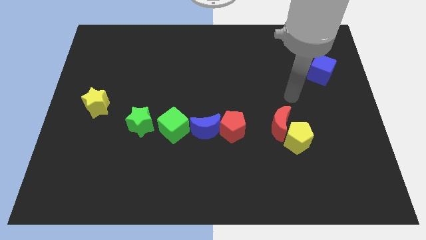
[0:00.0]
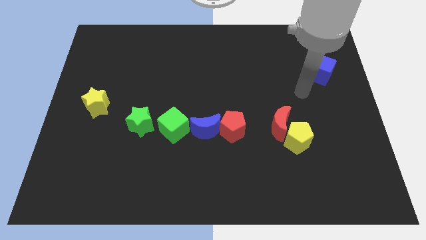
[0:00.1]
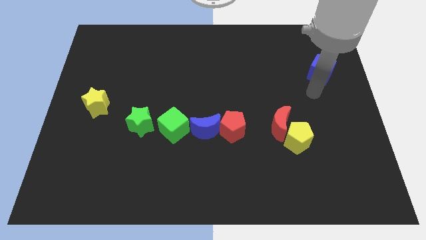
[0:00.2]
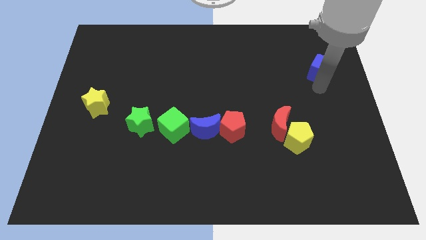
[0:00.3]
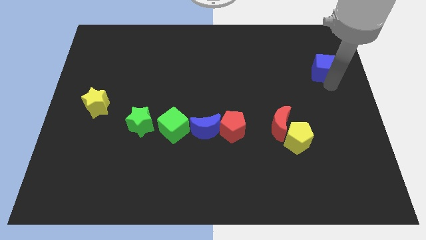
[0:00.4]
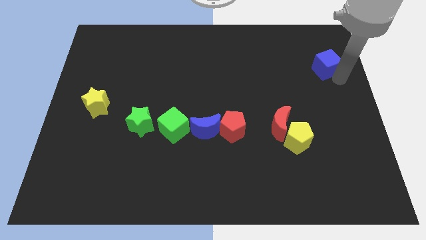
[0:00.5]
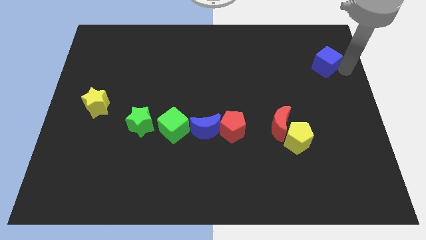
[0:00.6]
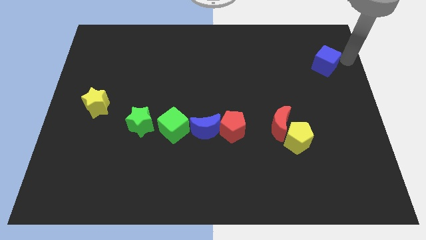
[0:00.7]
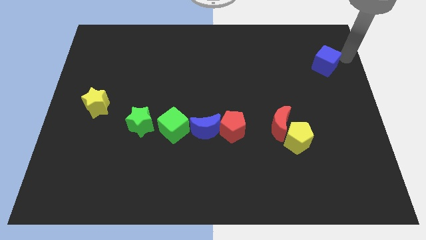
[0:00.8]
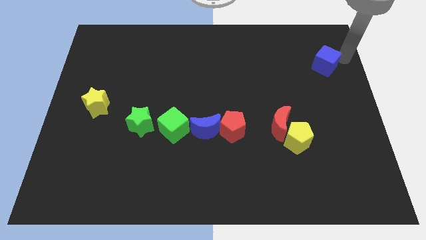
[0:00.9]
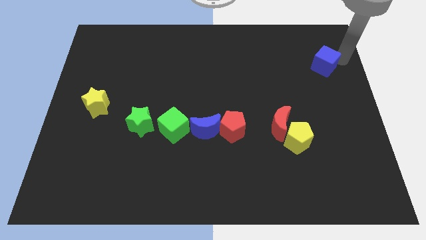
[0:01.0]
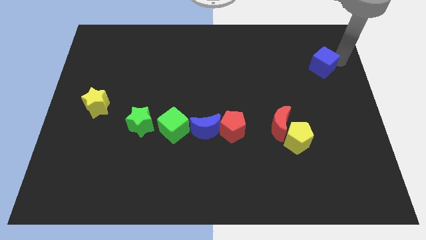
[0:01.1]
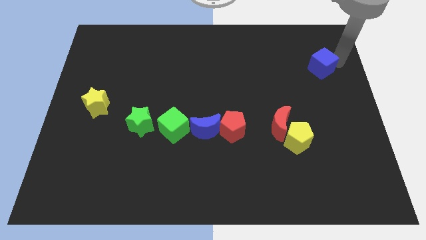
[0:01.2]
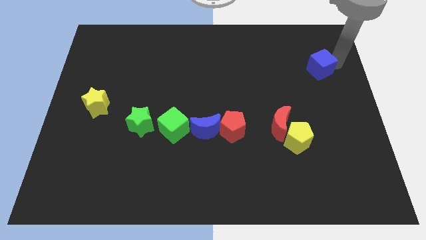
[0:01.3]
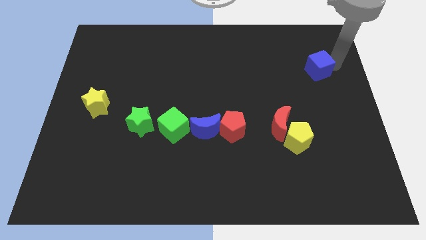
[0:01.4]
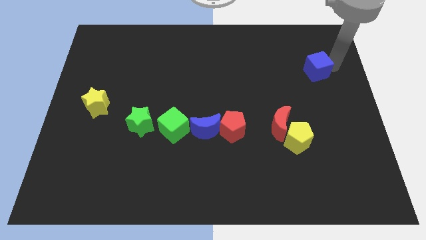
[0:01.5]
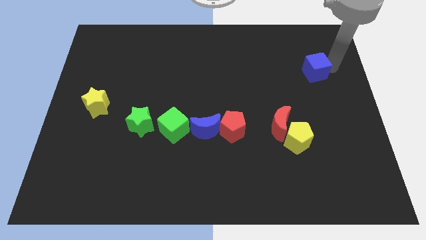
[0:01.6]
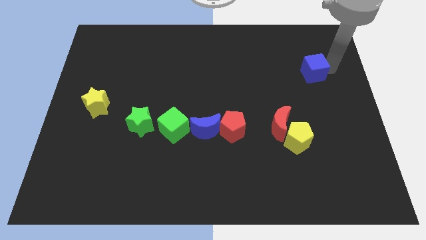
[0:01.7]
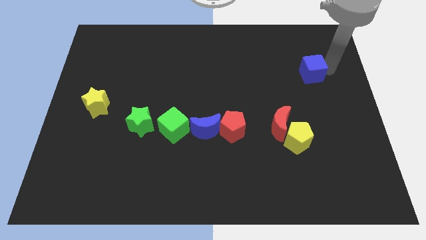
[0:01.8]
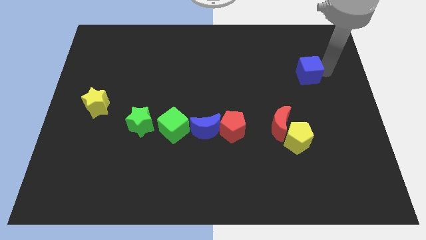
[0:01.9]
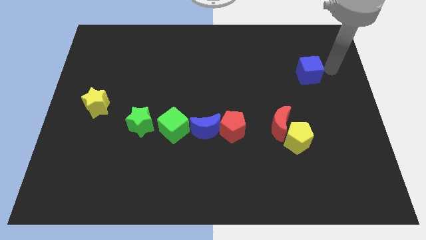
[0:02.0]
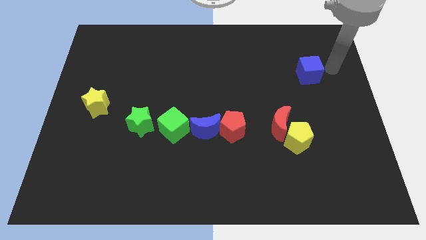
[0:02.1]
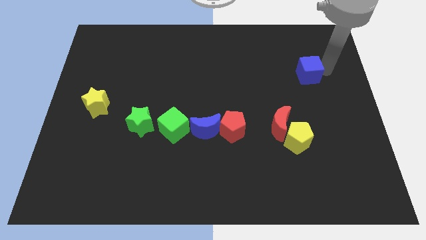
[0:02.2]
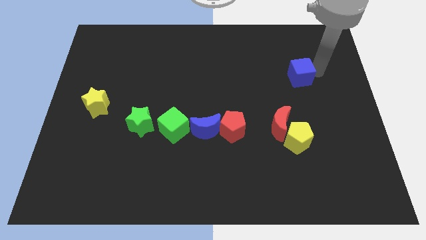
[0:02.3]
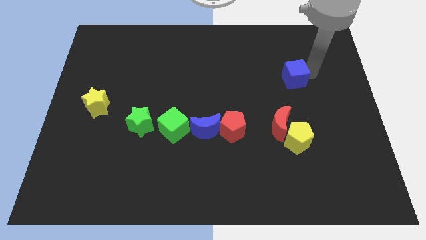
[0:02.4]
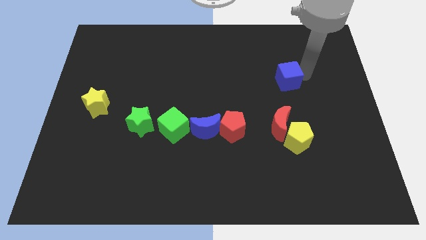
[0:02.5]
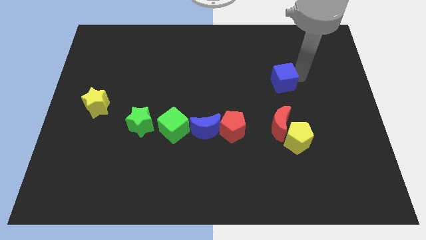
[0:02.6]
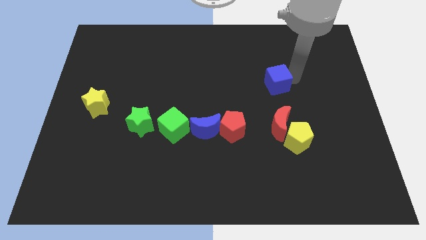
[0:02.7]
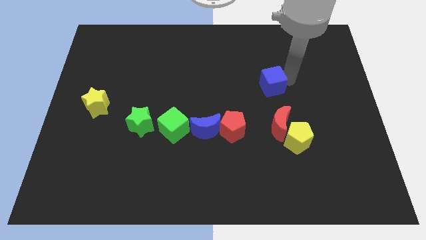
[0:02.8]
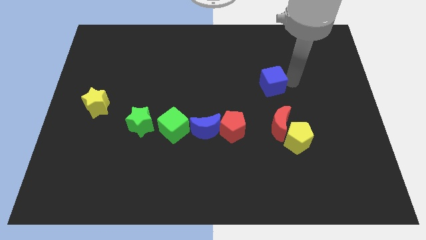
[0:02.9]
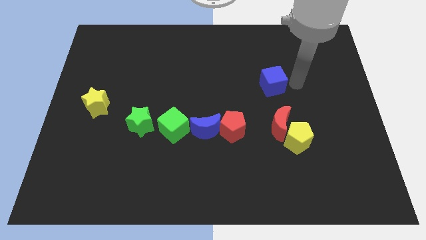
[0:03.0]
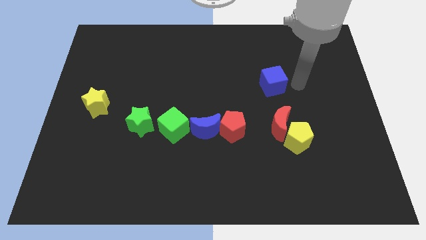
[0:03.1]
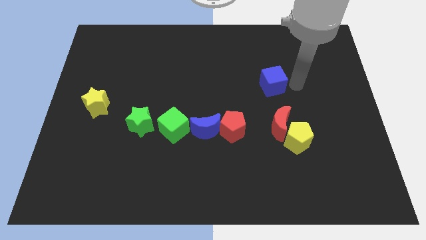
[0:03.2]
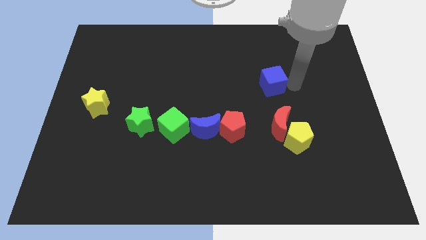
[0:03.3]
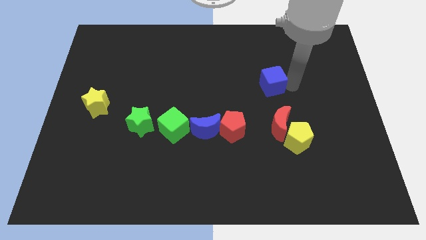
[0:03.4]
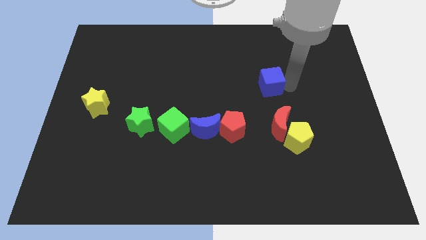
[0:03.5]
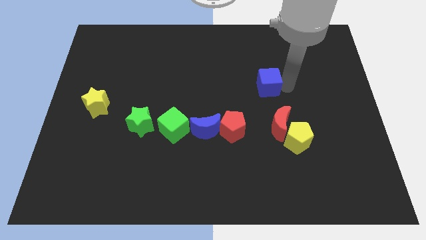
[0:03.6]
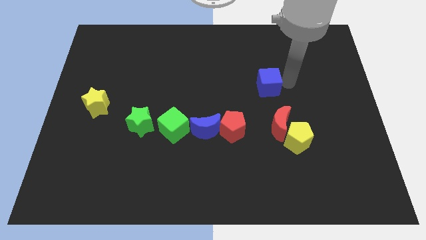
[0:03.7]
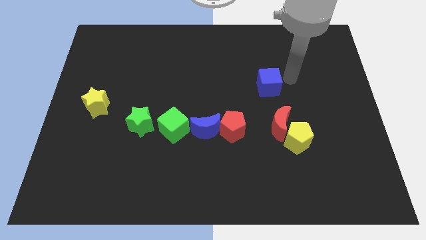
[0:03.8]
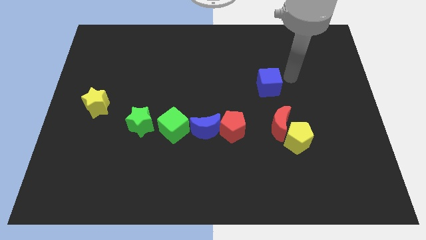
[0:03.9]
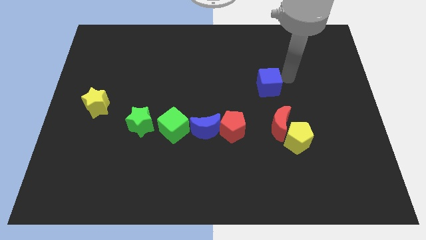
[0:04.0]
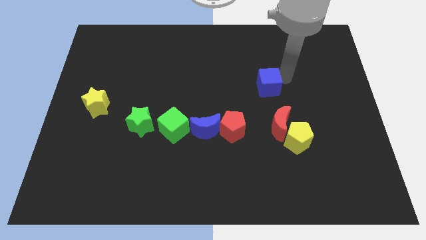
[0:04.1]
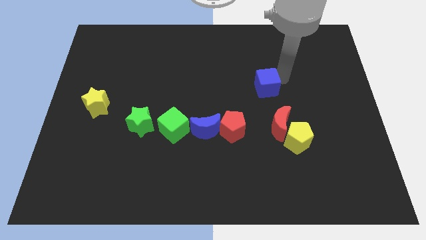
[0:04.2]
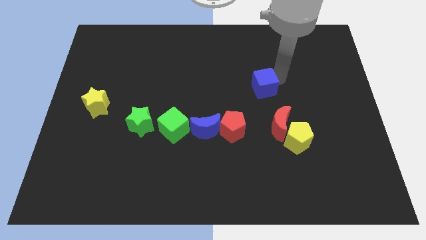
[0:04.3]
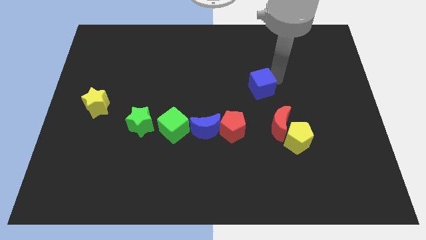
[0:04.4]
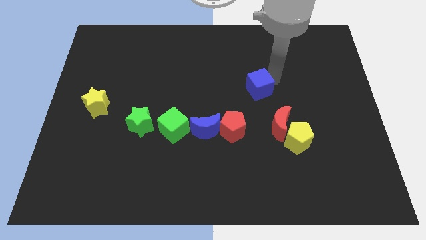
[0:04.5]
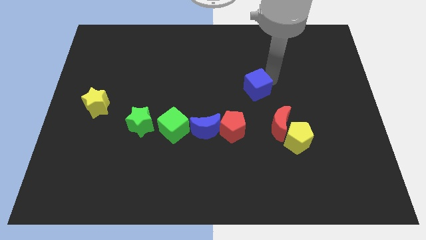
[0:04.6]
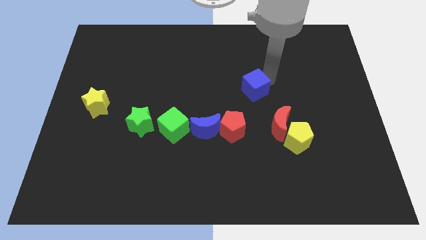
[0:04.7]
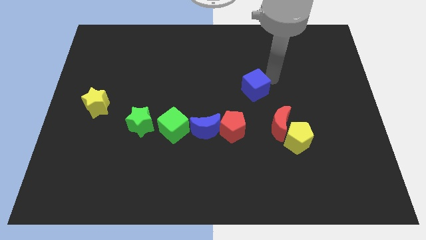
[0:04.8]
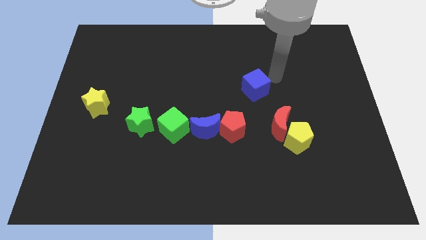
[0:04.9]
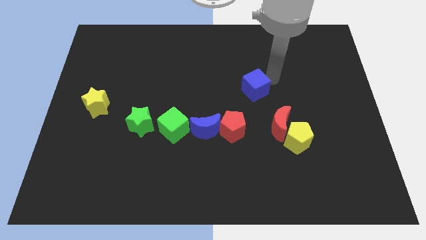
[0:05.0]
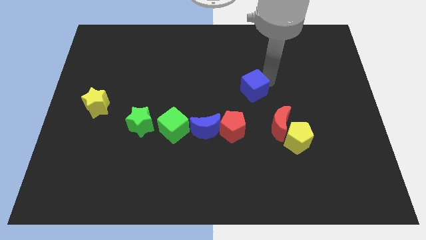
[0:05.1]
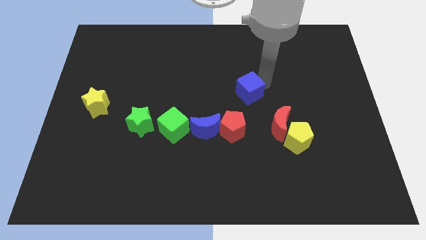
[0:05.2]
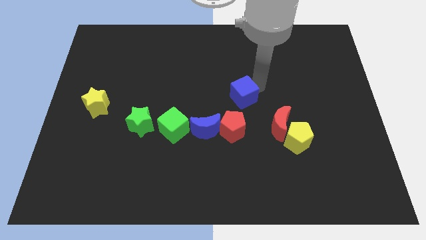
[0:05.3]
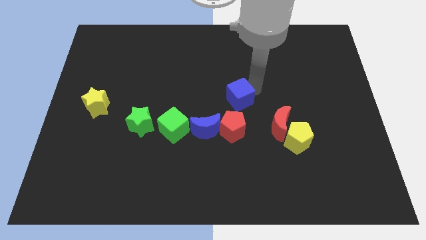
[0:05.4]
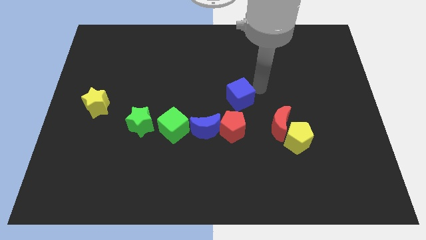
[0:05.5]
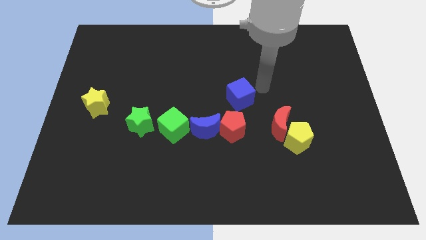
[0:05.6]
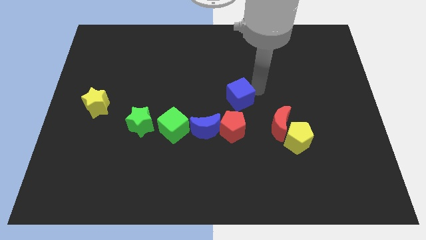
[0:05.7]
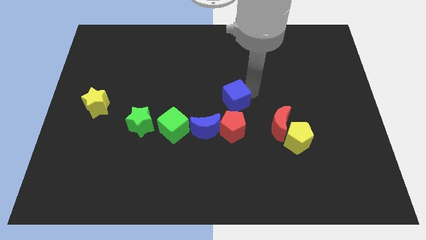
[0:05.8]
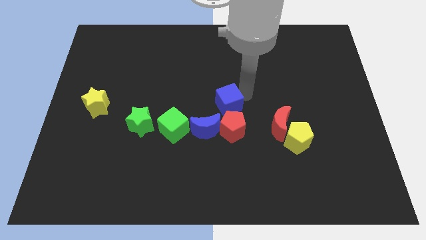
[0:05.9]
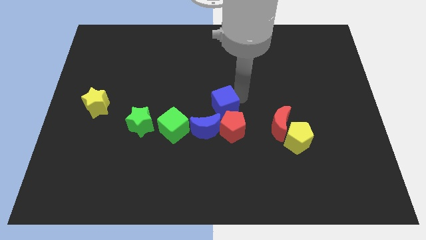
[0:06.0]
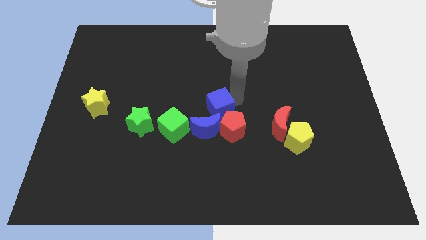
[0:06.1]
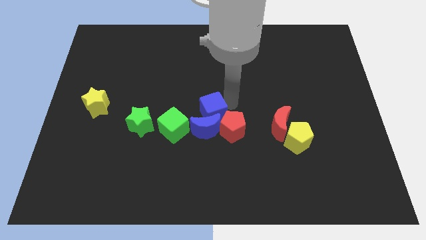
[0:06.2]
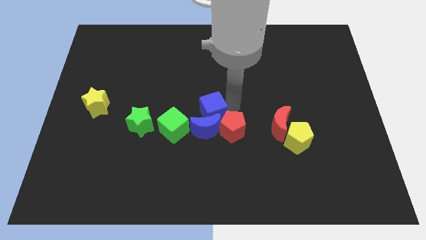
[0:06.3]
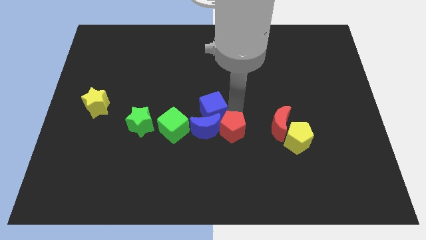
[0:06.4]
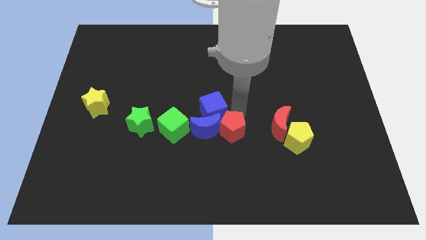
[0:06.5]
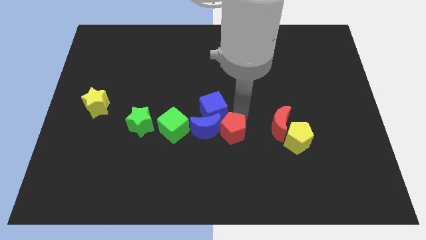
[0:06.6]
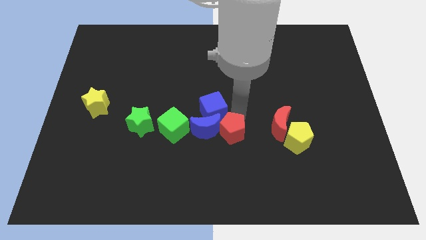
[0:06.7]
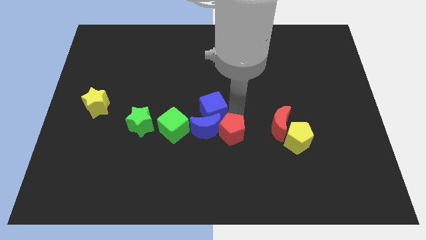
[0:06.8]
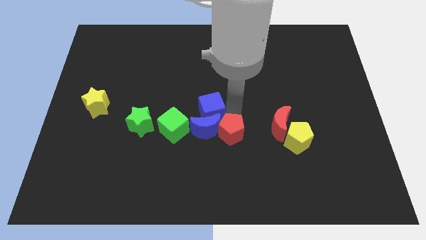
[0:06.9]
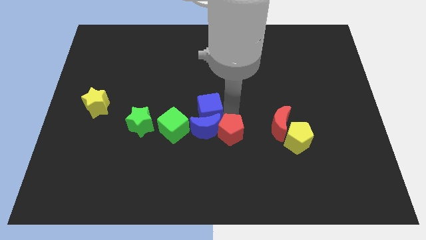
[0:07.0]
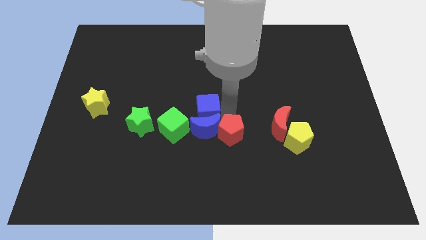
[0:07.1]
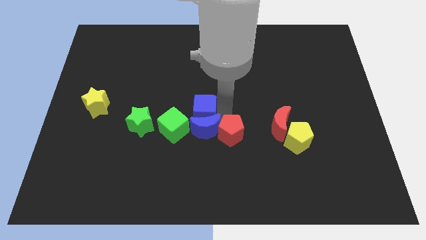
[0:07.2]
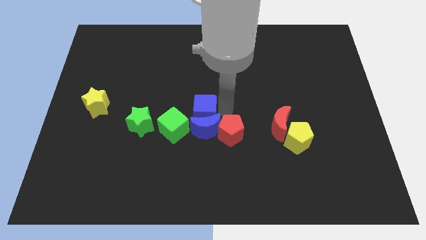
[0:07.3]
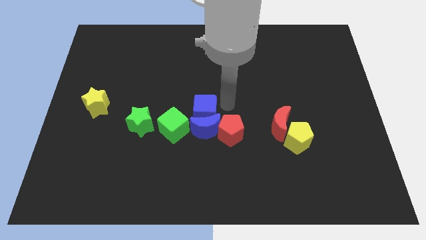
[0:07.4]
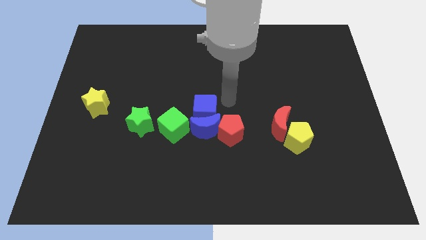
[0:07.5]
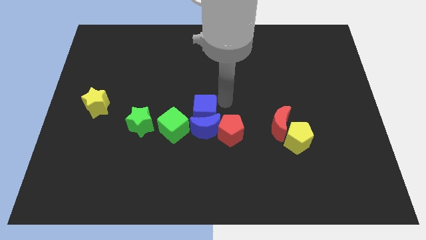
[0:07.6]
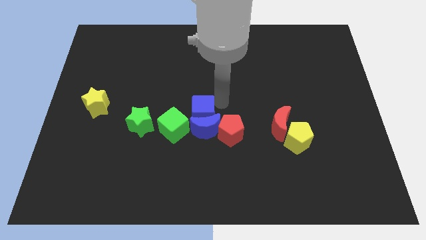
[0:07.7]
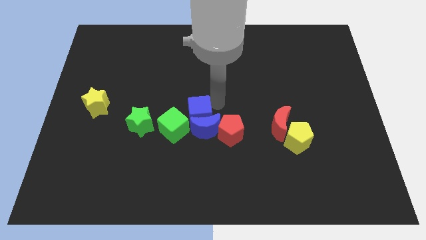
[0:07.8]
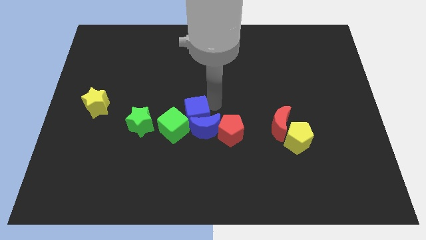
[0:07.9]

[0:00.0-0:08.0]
slide the blue cube towards the green cube
